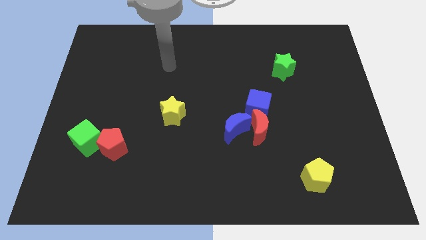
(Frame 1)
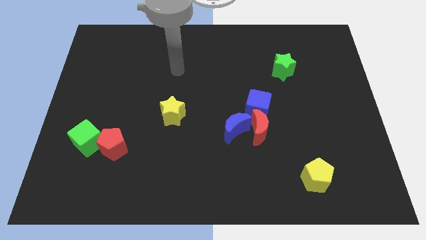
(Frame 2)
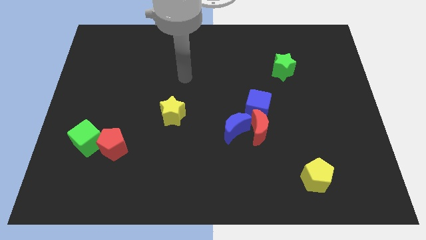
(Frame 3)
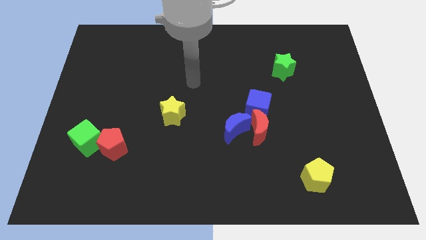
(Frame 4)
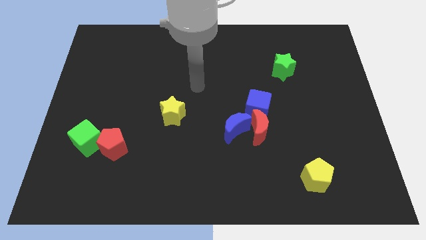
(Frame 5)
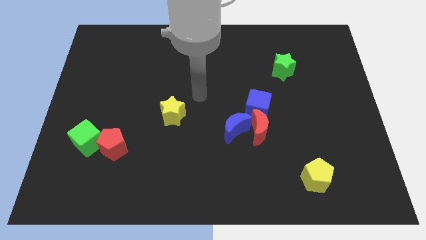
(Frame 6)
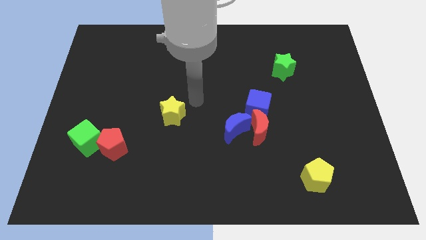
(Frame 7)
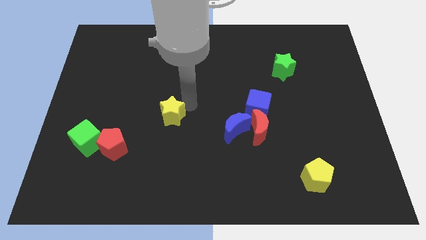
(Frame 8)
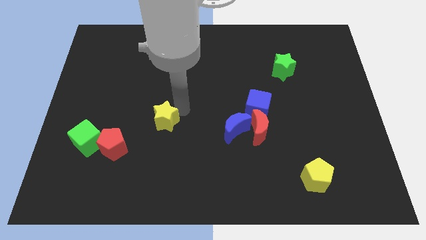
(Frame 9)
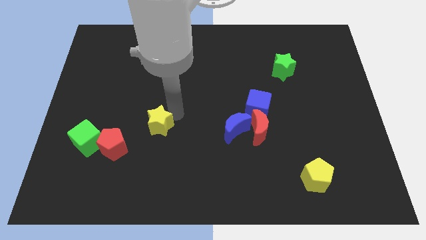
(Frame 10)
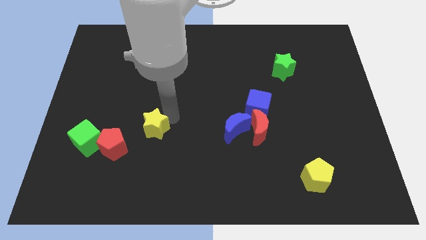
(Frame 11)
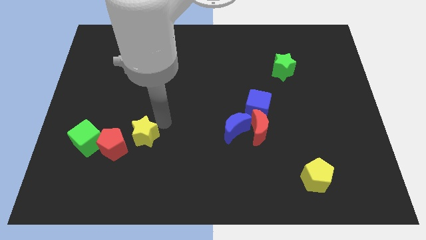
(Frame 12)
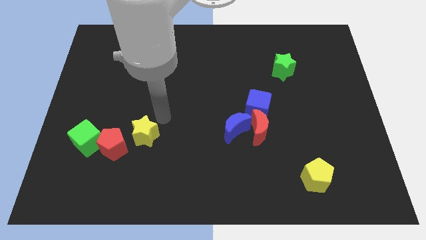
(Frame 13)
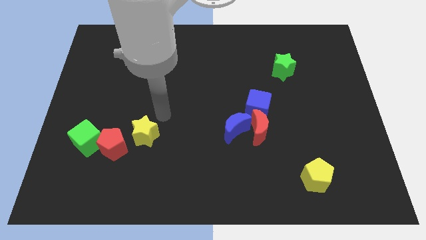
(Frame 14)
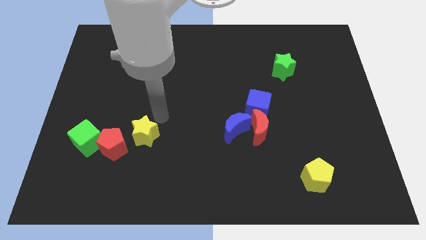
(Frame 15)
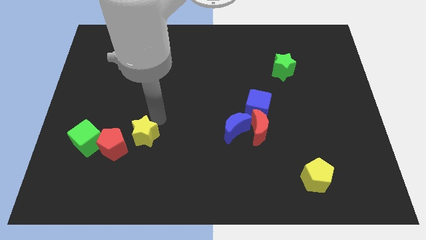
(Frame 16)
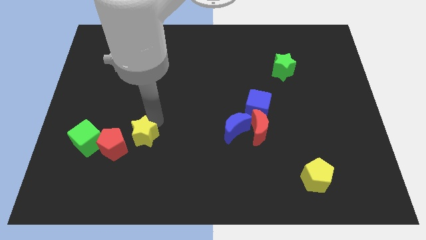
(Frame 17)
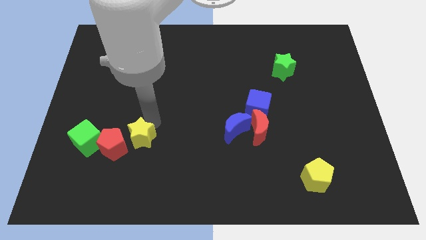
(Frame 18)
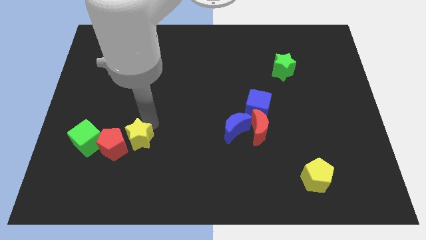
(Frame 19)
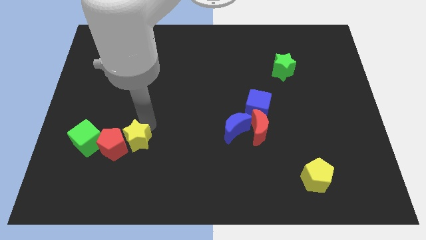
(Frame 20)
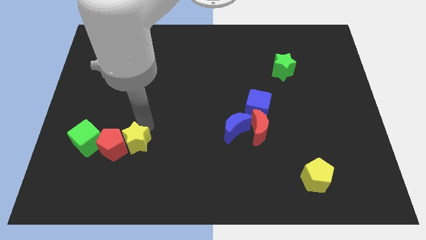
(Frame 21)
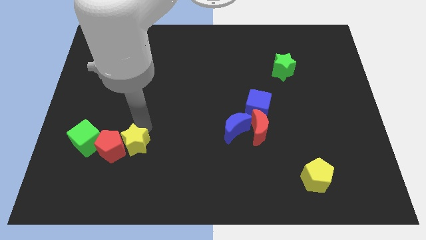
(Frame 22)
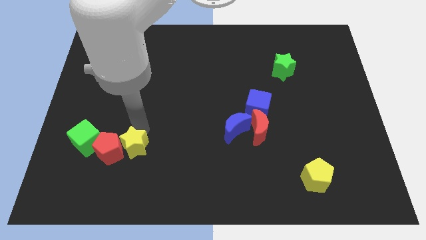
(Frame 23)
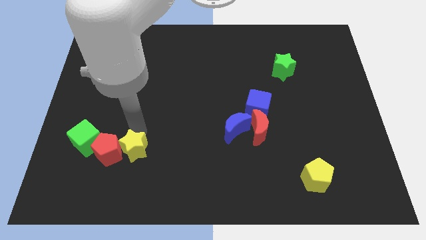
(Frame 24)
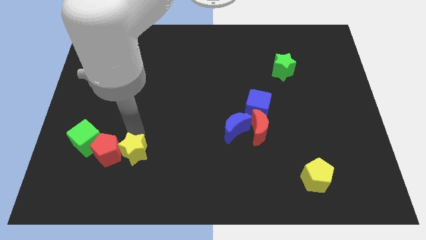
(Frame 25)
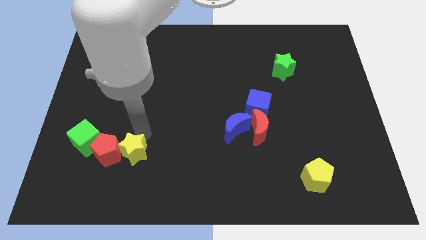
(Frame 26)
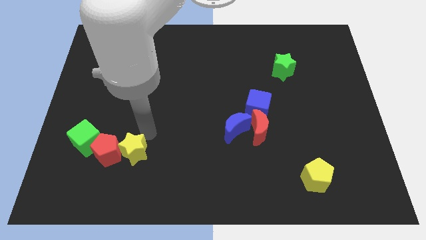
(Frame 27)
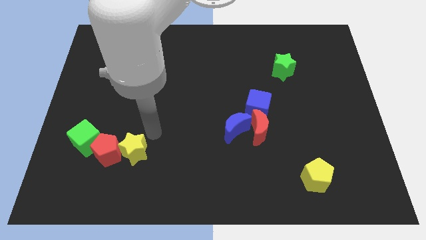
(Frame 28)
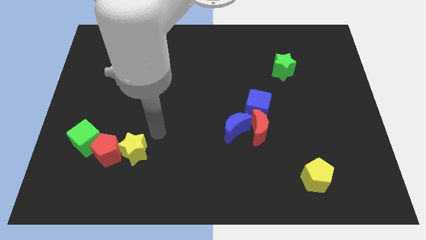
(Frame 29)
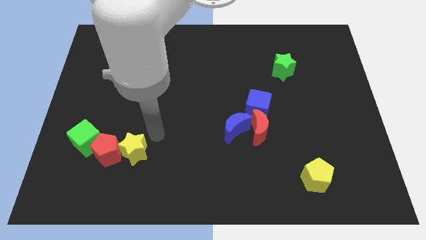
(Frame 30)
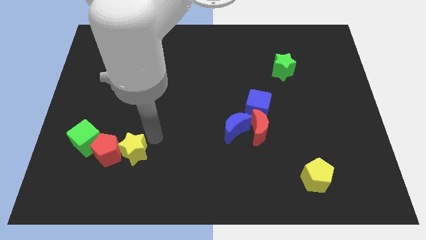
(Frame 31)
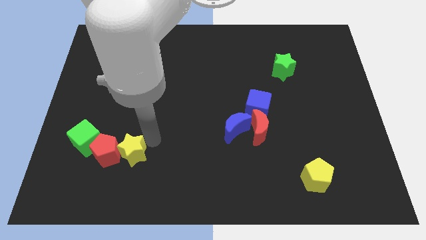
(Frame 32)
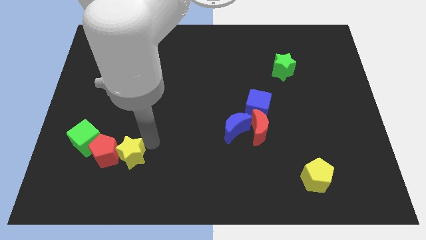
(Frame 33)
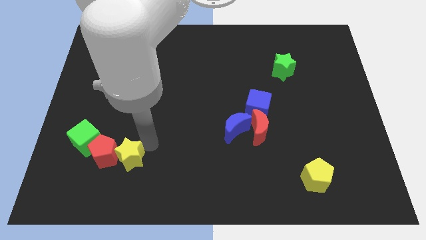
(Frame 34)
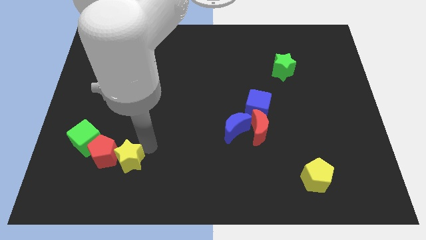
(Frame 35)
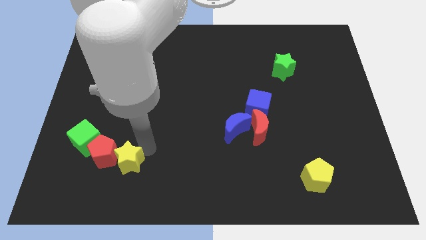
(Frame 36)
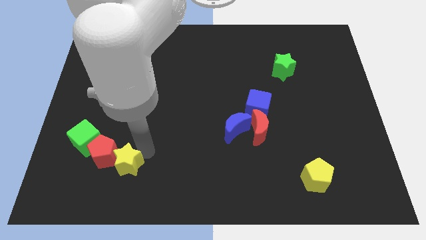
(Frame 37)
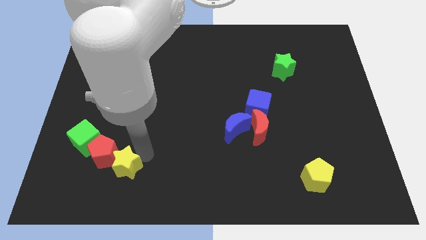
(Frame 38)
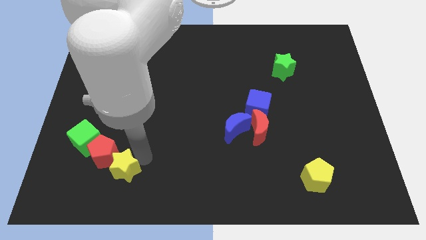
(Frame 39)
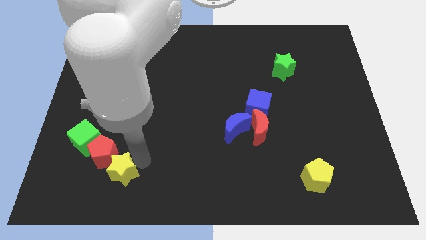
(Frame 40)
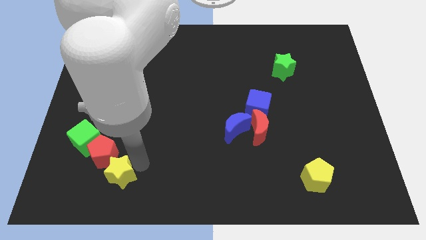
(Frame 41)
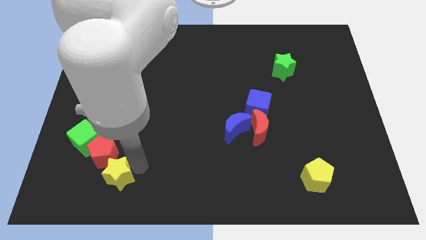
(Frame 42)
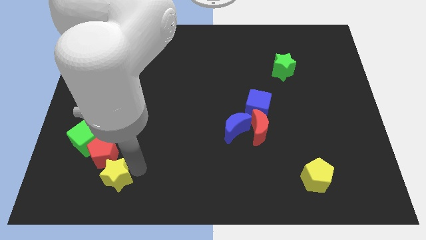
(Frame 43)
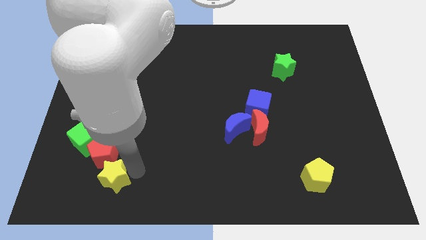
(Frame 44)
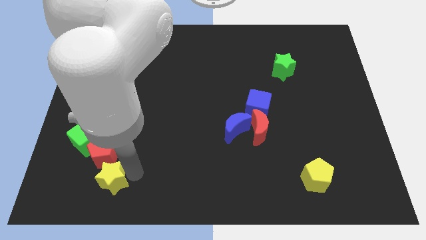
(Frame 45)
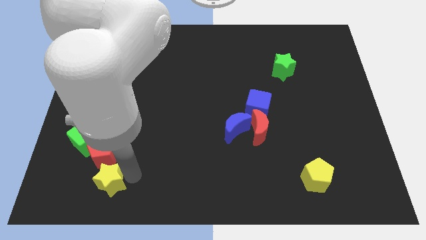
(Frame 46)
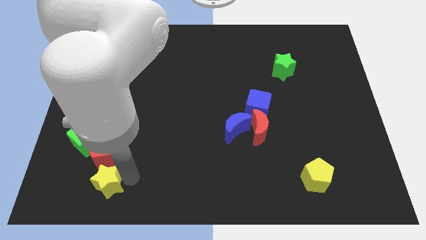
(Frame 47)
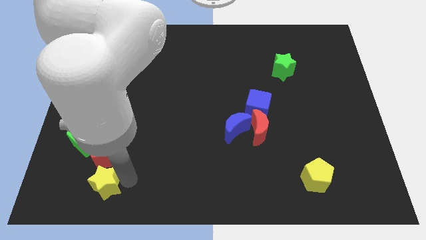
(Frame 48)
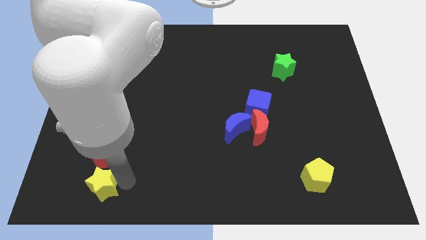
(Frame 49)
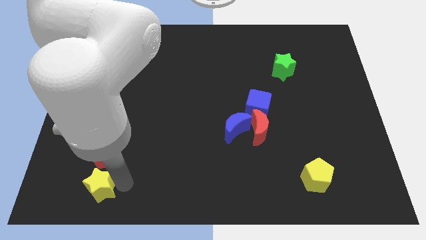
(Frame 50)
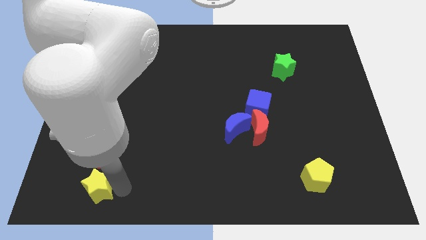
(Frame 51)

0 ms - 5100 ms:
push the yellow star below the green cube

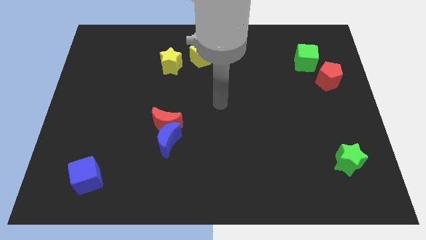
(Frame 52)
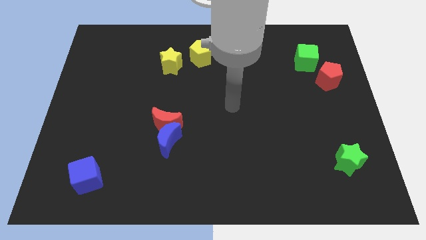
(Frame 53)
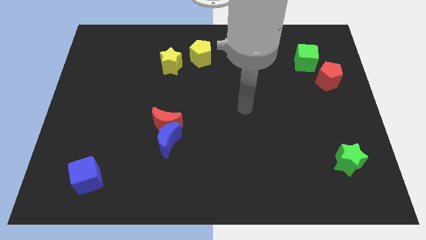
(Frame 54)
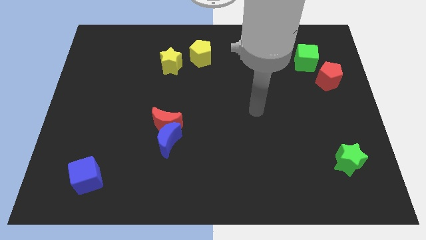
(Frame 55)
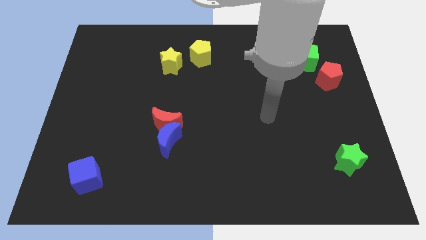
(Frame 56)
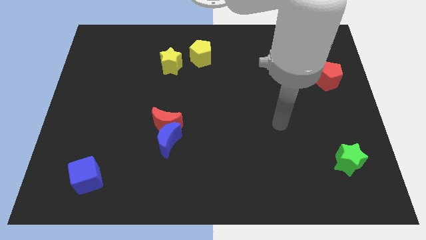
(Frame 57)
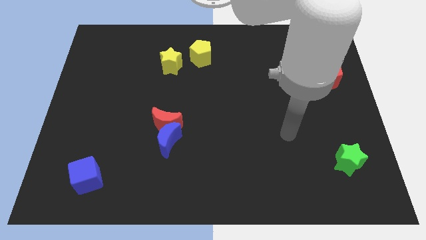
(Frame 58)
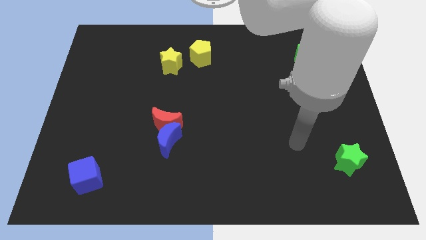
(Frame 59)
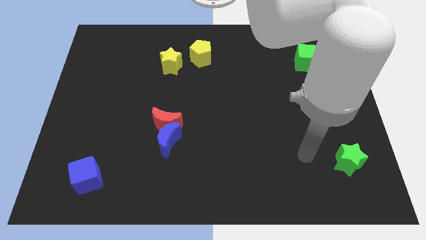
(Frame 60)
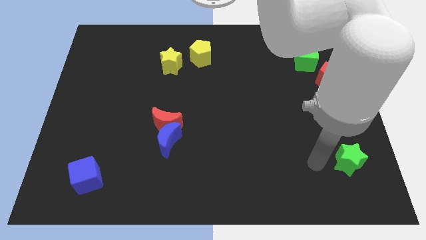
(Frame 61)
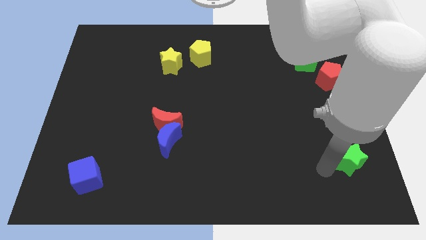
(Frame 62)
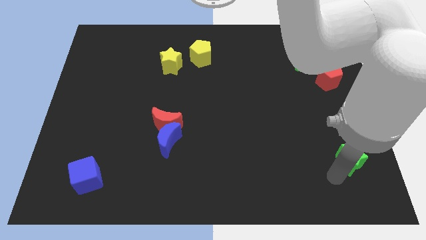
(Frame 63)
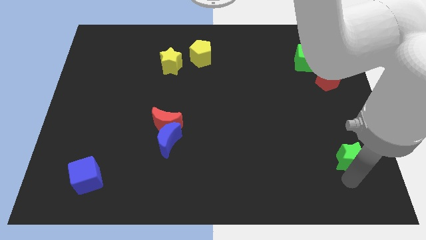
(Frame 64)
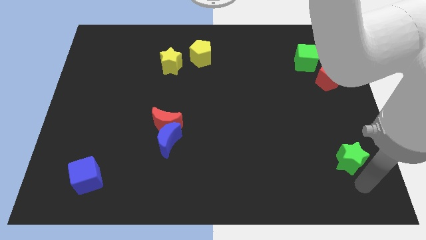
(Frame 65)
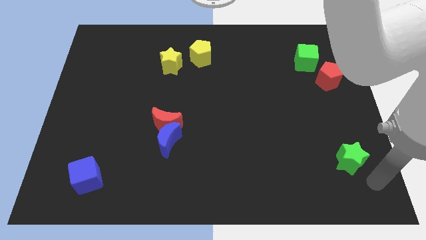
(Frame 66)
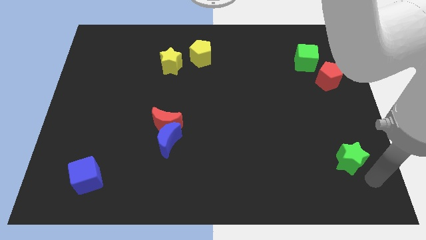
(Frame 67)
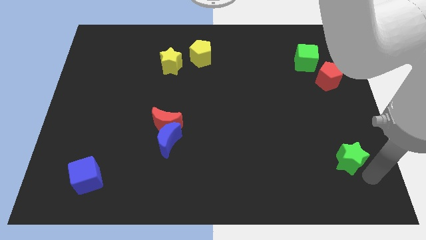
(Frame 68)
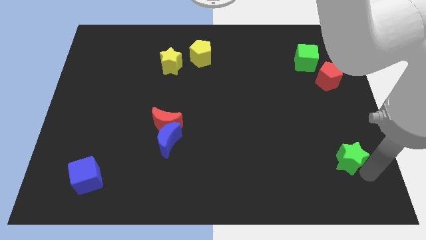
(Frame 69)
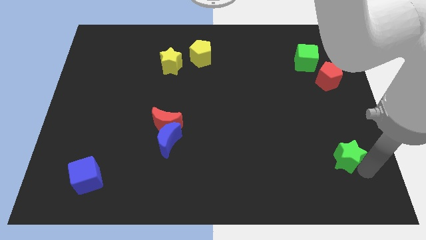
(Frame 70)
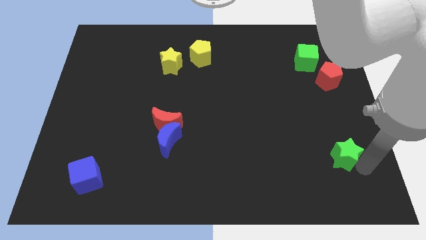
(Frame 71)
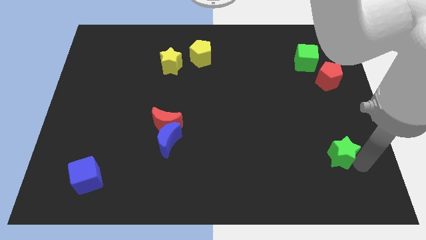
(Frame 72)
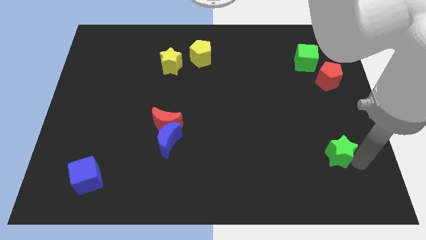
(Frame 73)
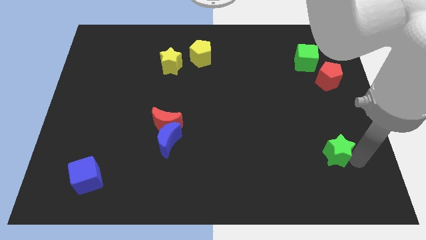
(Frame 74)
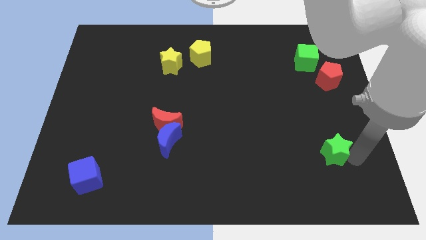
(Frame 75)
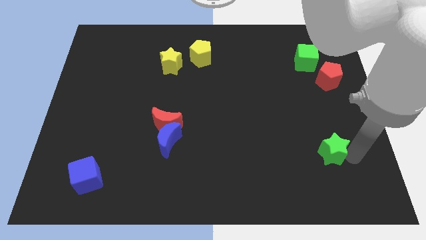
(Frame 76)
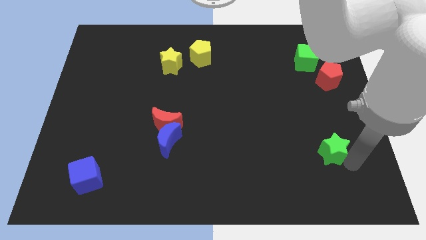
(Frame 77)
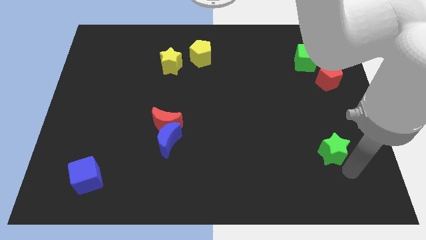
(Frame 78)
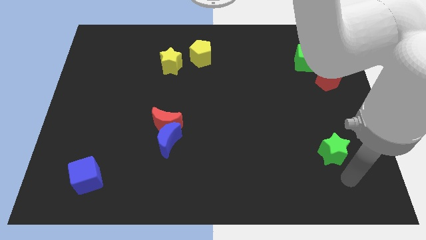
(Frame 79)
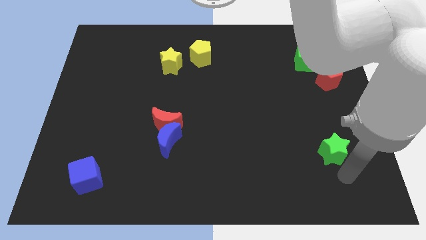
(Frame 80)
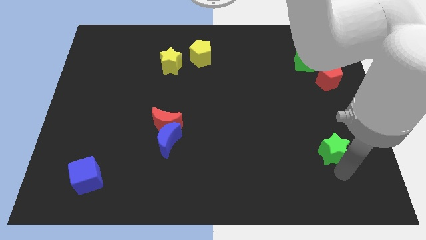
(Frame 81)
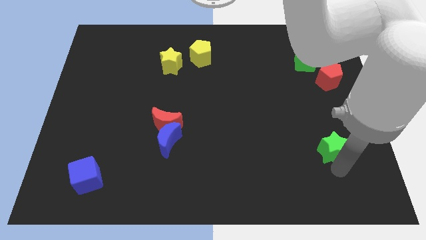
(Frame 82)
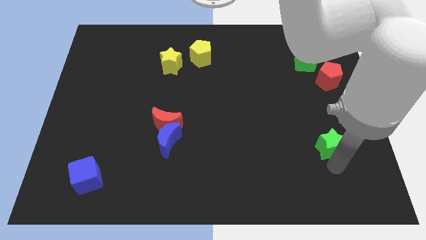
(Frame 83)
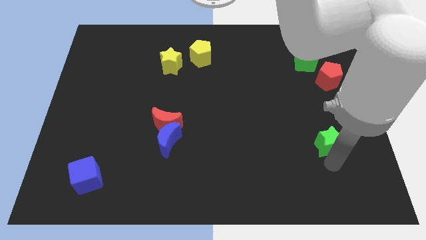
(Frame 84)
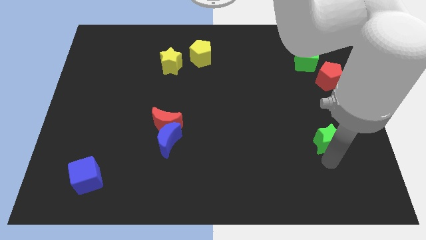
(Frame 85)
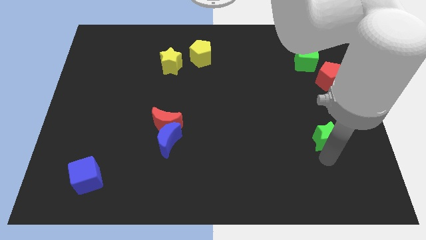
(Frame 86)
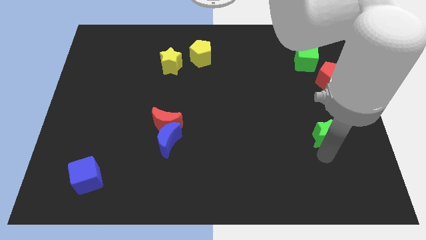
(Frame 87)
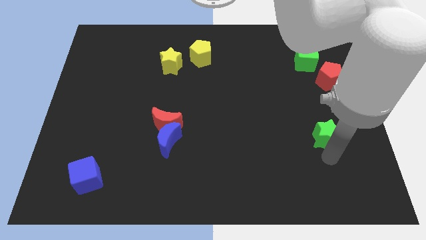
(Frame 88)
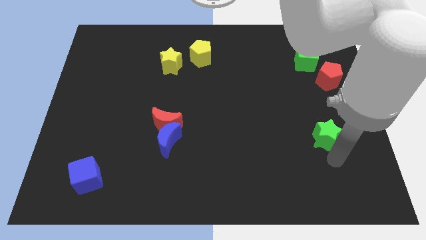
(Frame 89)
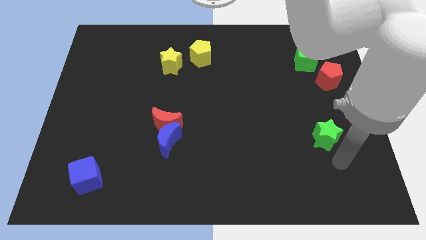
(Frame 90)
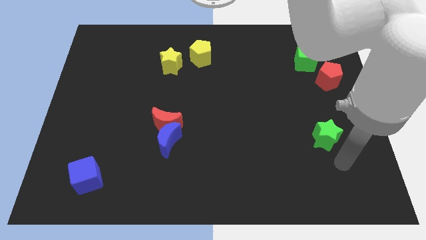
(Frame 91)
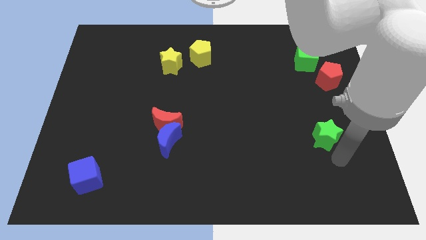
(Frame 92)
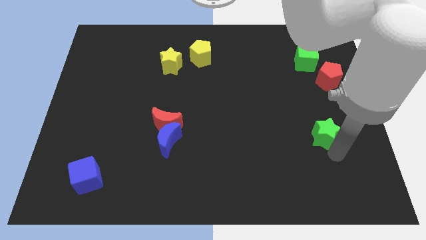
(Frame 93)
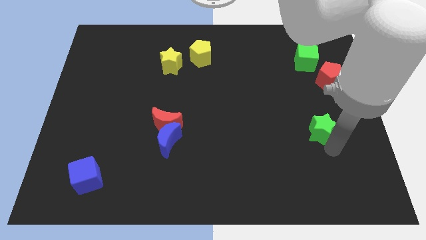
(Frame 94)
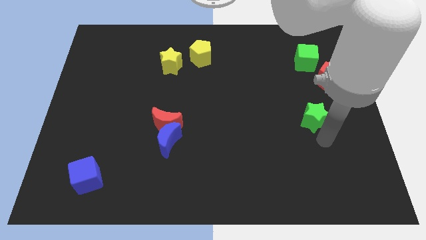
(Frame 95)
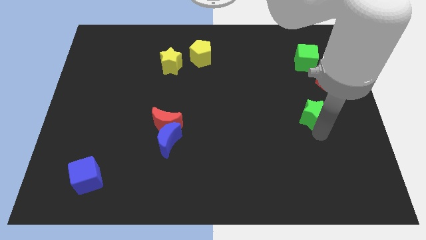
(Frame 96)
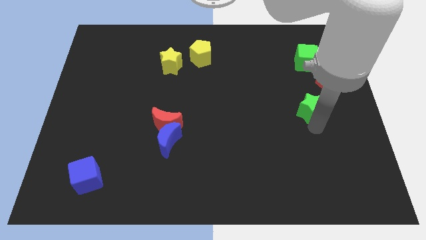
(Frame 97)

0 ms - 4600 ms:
push the green star to the bottom left side of the red pentagon
